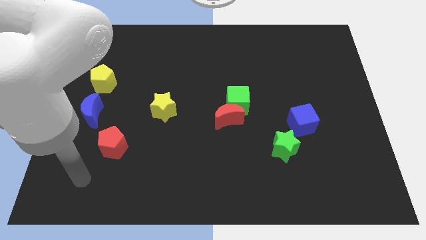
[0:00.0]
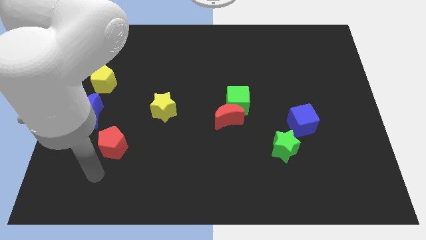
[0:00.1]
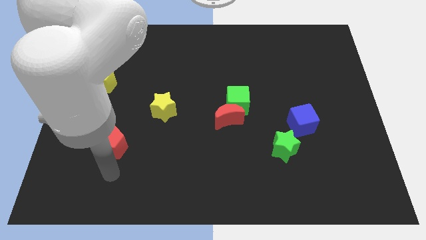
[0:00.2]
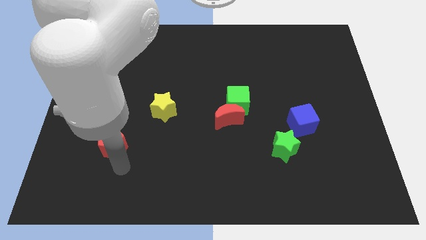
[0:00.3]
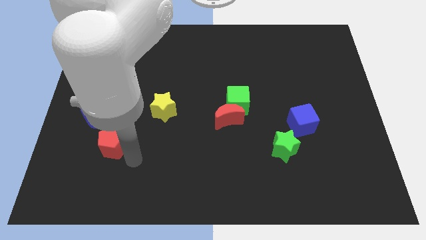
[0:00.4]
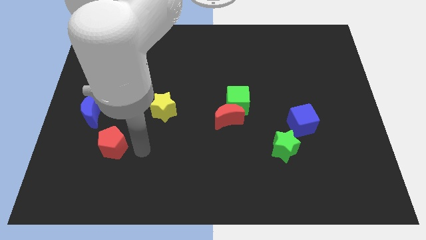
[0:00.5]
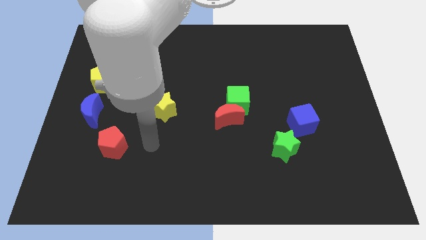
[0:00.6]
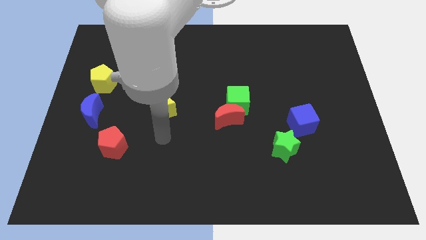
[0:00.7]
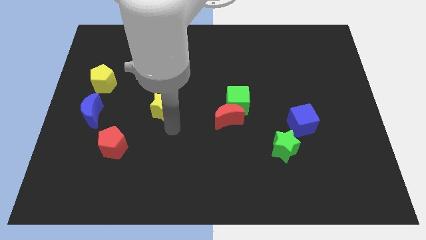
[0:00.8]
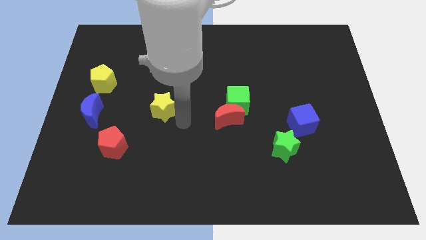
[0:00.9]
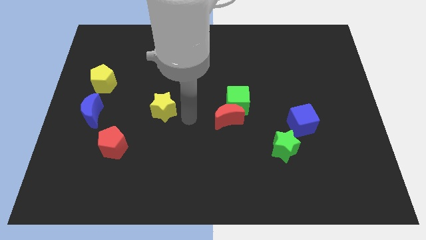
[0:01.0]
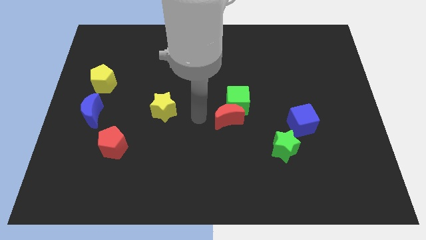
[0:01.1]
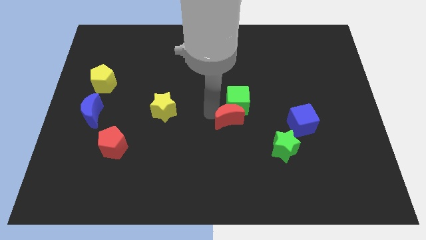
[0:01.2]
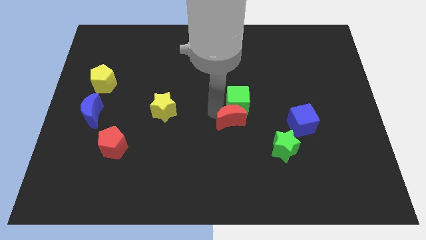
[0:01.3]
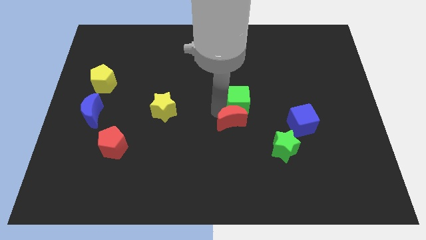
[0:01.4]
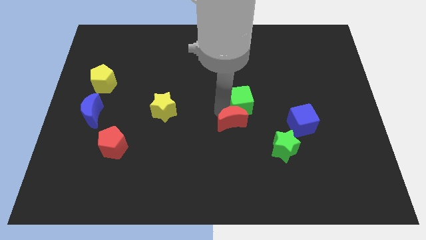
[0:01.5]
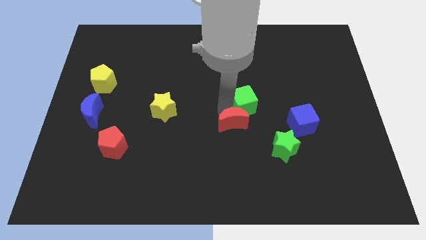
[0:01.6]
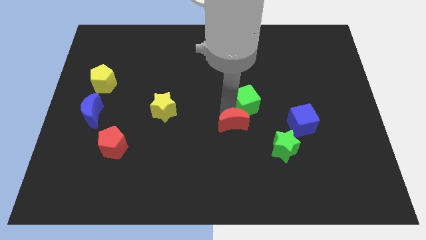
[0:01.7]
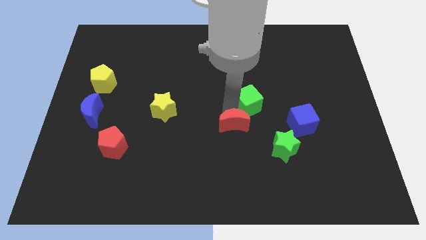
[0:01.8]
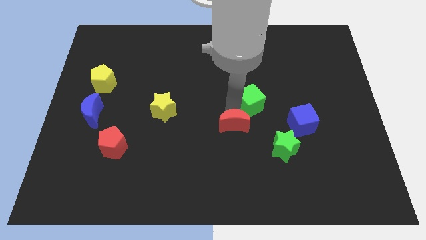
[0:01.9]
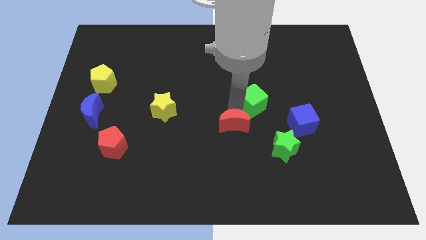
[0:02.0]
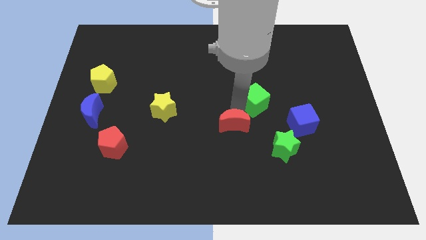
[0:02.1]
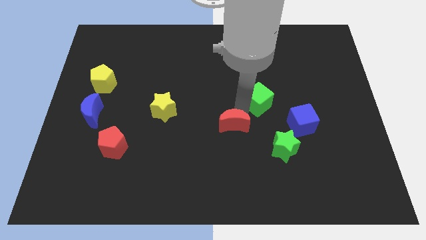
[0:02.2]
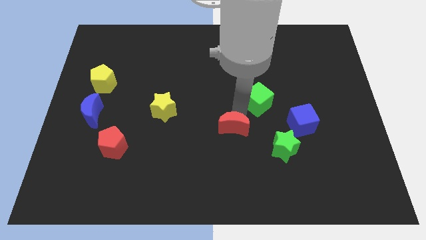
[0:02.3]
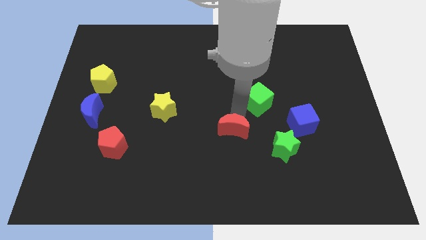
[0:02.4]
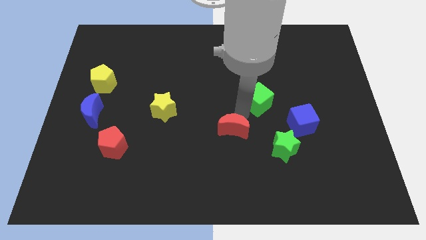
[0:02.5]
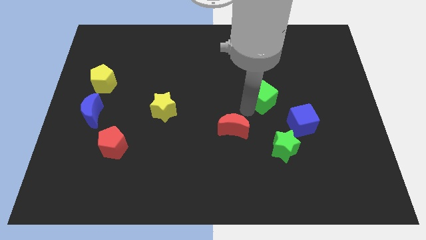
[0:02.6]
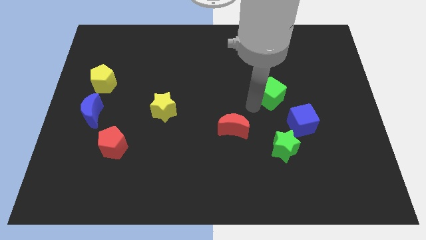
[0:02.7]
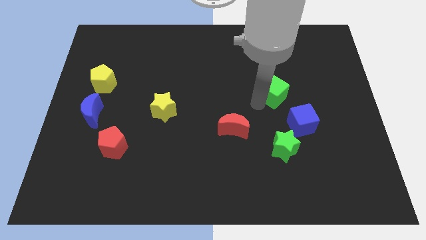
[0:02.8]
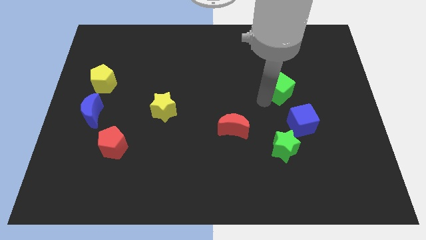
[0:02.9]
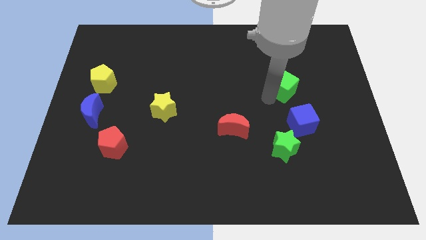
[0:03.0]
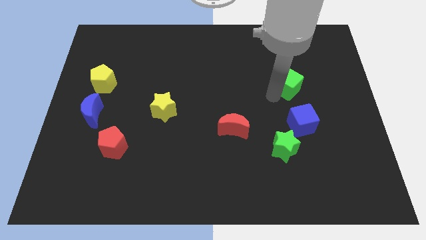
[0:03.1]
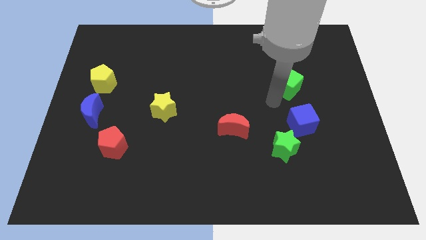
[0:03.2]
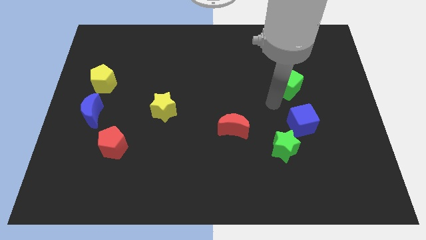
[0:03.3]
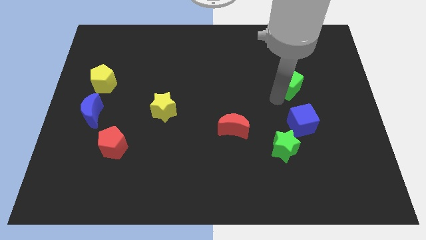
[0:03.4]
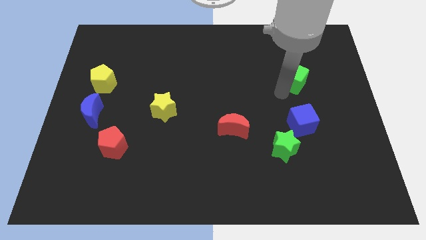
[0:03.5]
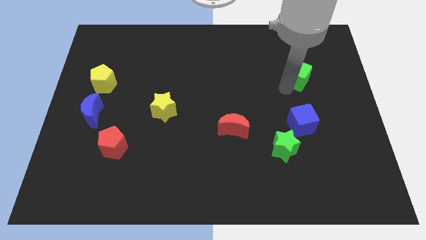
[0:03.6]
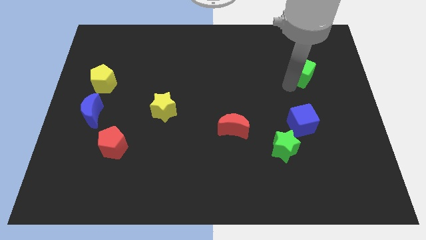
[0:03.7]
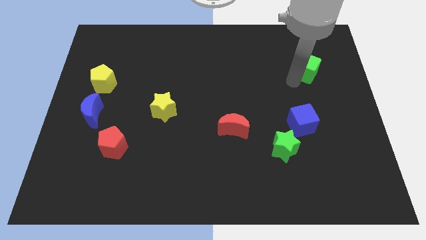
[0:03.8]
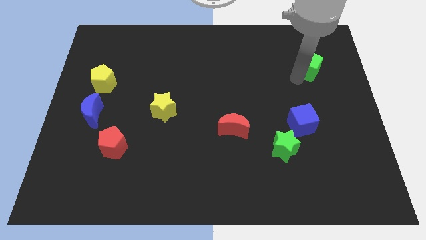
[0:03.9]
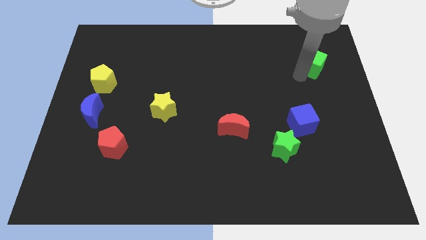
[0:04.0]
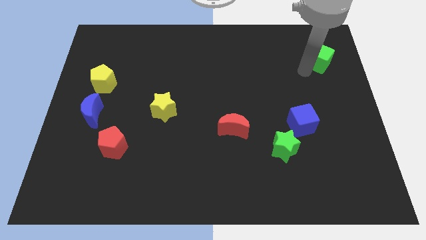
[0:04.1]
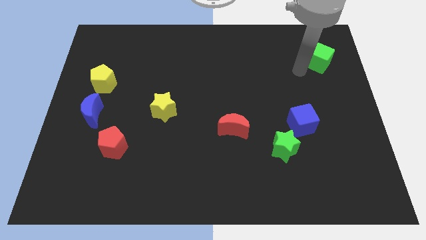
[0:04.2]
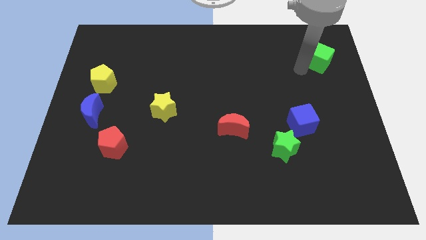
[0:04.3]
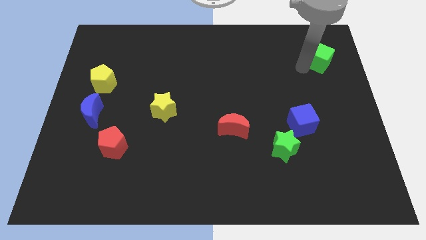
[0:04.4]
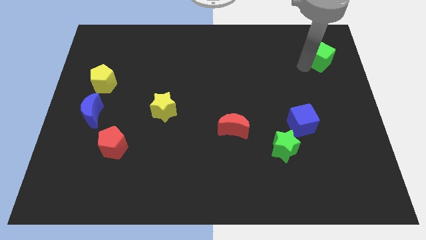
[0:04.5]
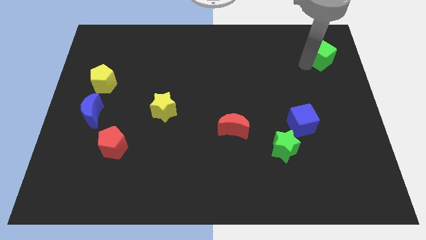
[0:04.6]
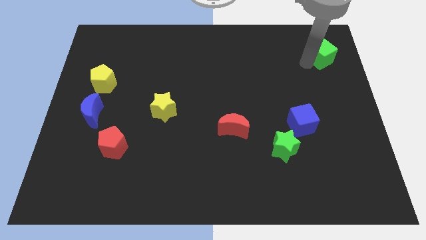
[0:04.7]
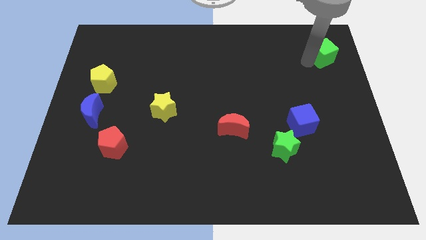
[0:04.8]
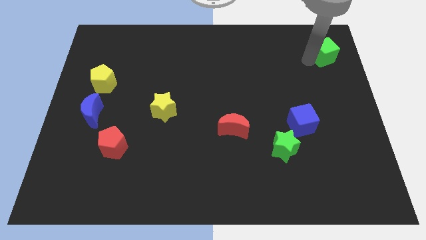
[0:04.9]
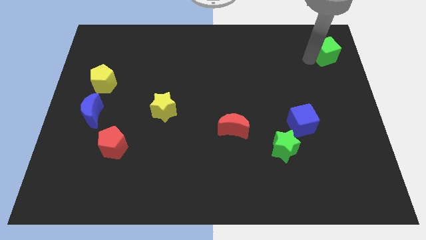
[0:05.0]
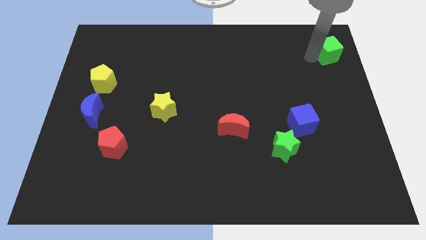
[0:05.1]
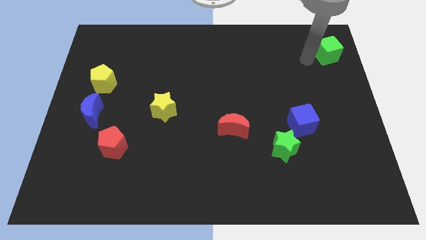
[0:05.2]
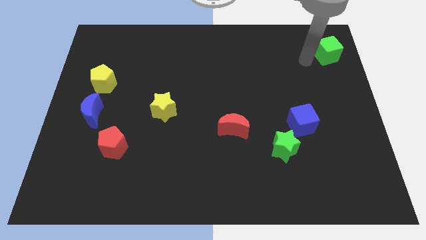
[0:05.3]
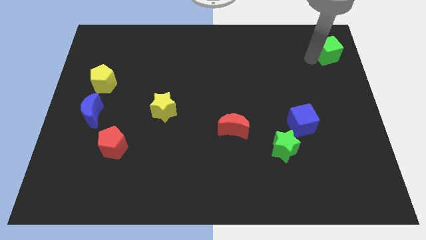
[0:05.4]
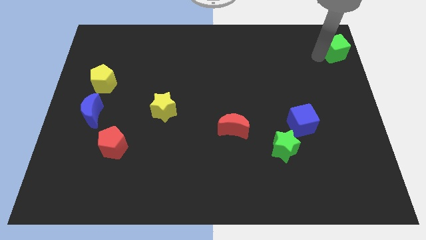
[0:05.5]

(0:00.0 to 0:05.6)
put the green cube to the upper right corner
